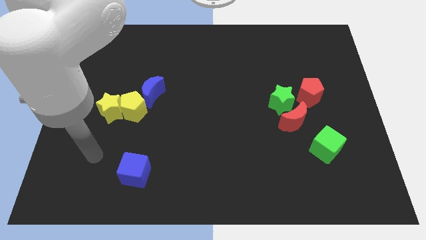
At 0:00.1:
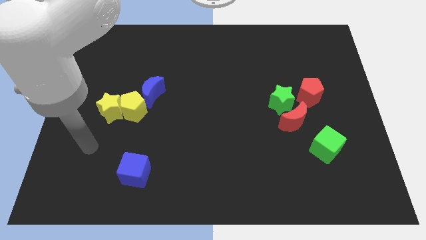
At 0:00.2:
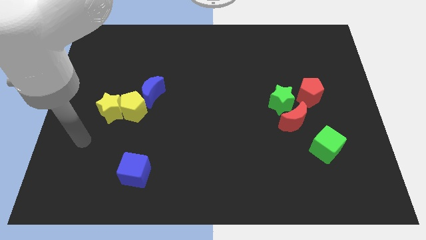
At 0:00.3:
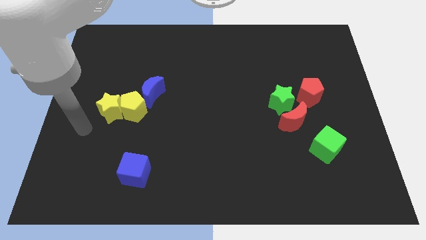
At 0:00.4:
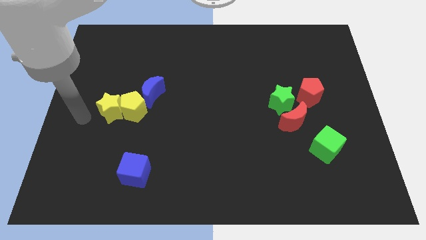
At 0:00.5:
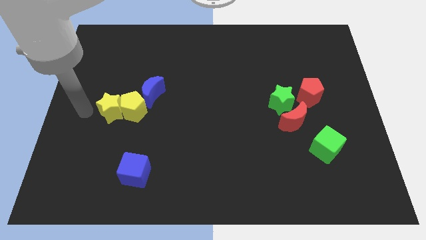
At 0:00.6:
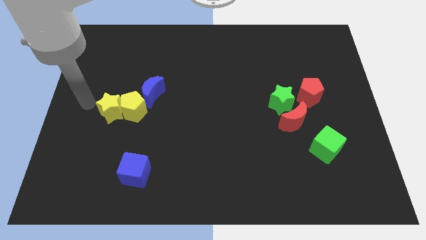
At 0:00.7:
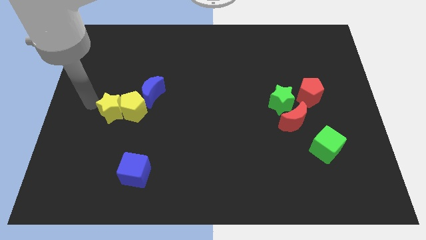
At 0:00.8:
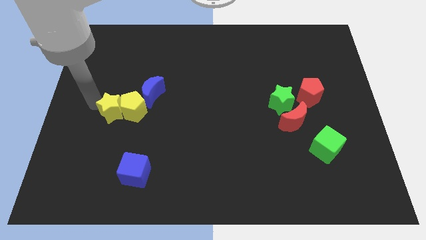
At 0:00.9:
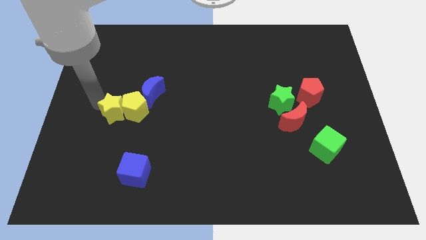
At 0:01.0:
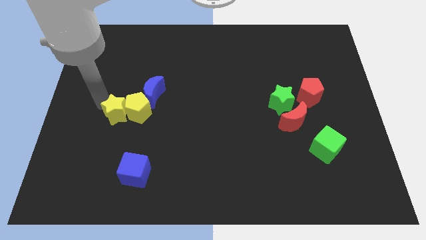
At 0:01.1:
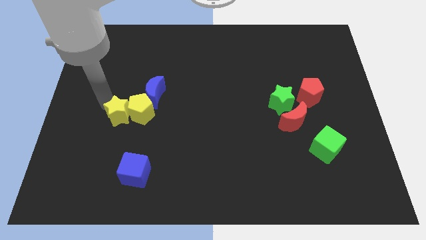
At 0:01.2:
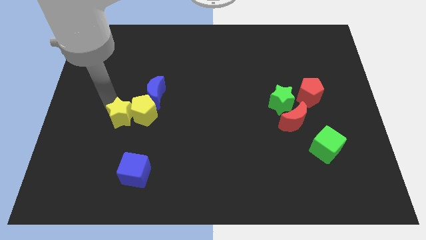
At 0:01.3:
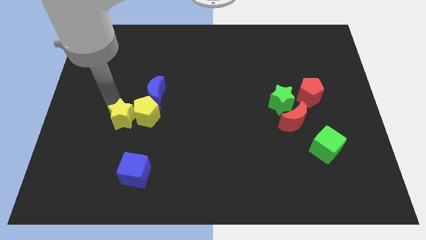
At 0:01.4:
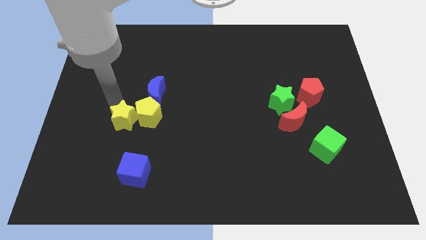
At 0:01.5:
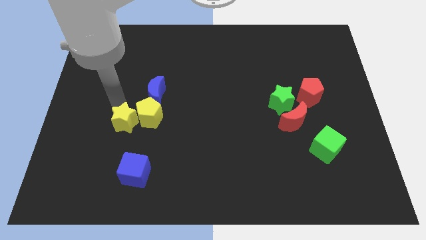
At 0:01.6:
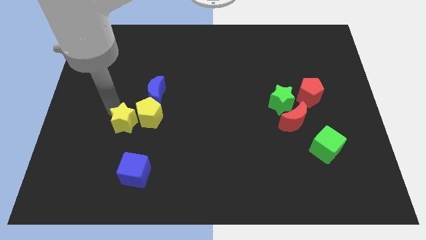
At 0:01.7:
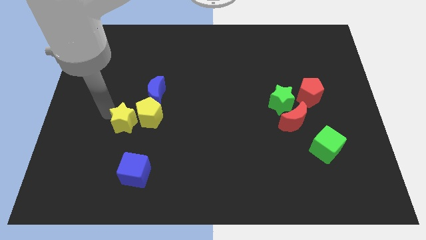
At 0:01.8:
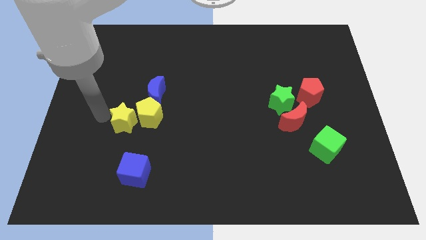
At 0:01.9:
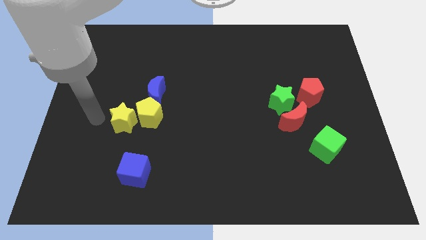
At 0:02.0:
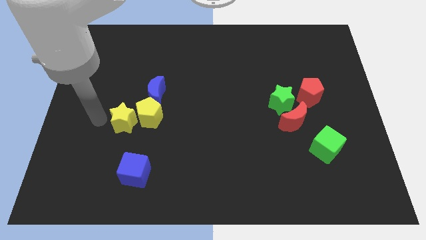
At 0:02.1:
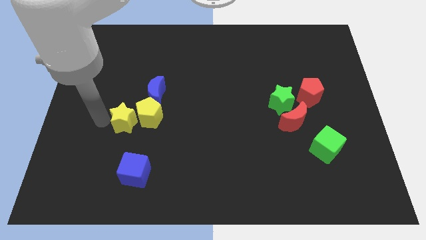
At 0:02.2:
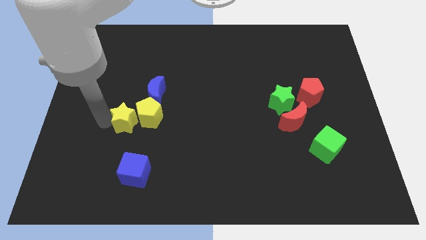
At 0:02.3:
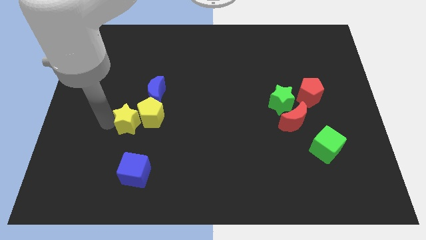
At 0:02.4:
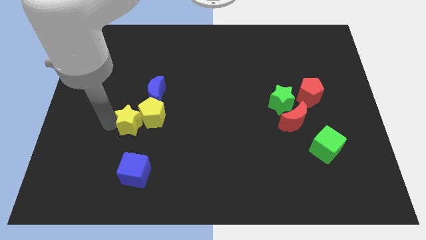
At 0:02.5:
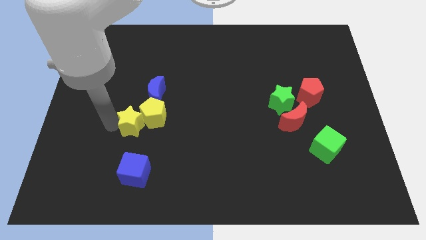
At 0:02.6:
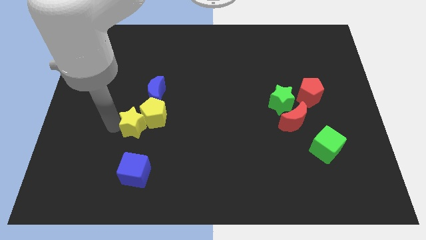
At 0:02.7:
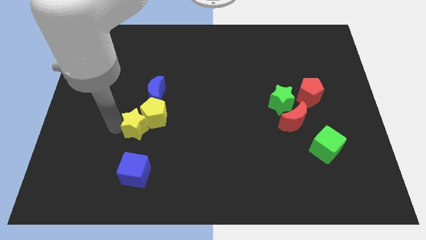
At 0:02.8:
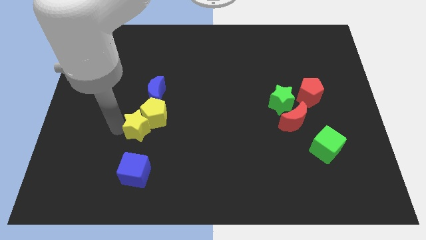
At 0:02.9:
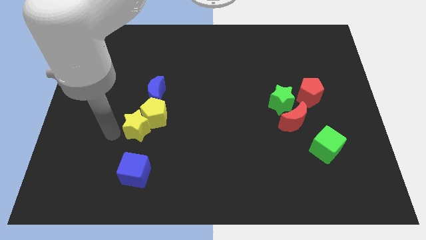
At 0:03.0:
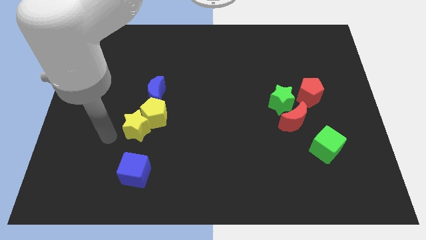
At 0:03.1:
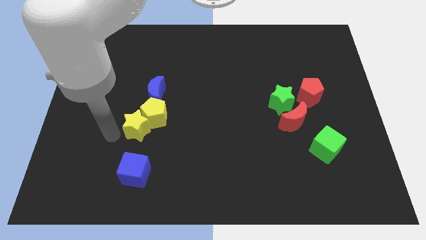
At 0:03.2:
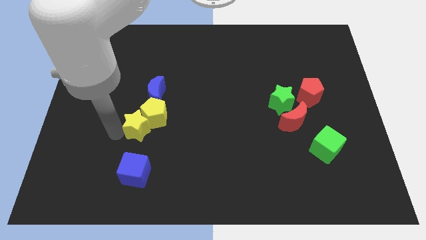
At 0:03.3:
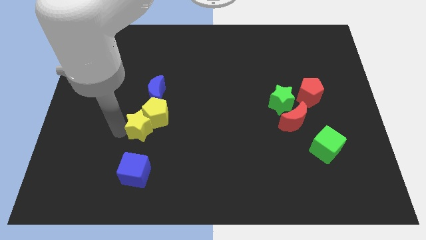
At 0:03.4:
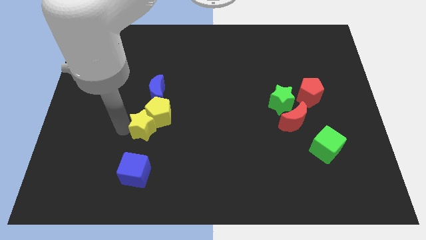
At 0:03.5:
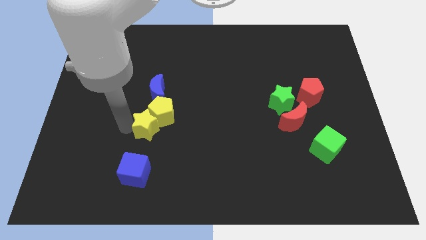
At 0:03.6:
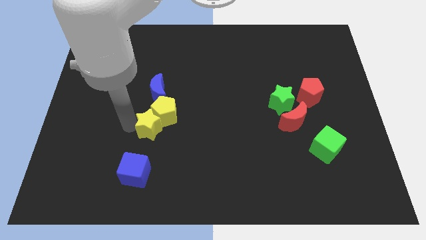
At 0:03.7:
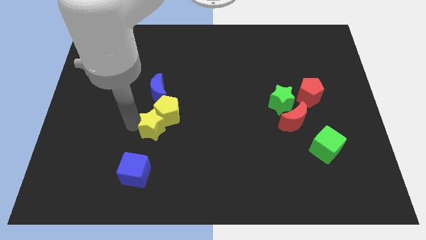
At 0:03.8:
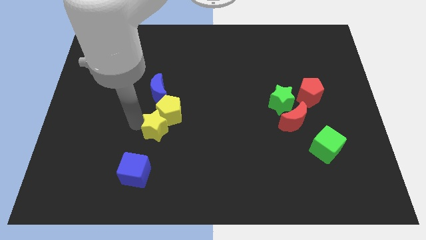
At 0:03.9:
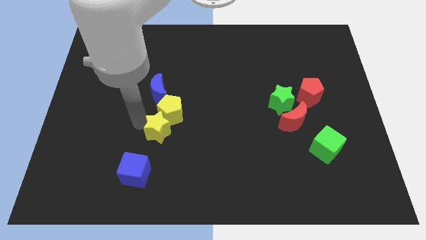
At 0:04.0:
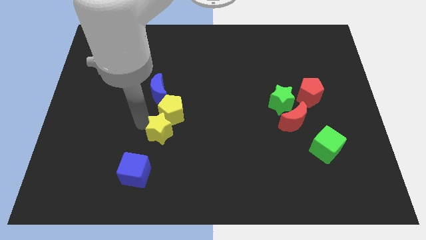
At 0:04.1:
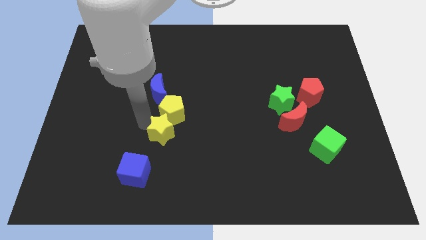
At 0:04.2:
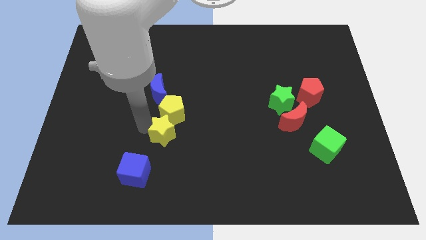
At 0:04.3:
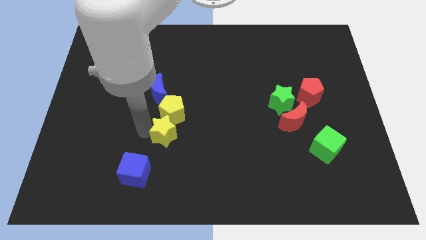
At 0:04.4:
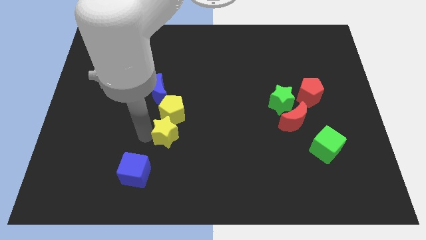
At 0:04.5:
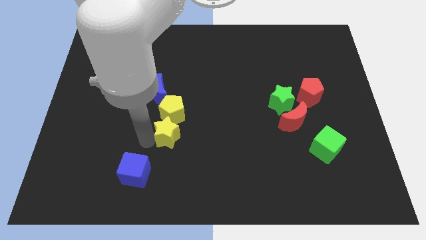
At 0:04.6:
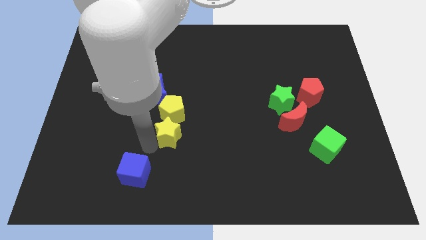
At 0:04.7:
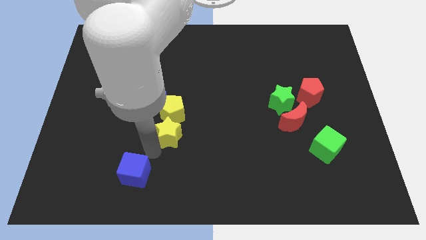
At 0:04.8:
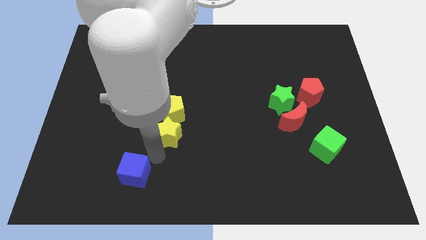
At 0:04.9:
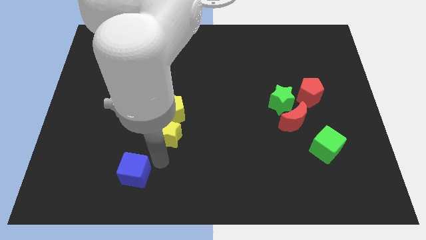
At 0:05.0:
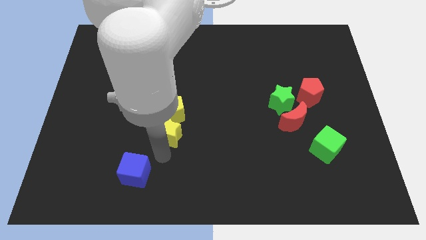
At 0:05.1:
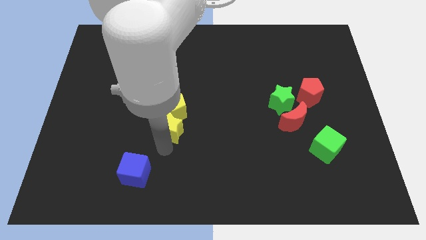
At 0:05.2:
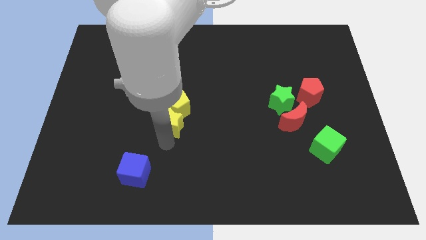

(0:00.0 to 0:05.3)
slide the yellow star to the middle

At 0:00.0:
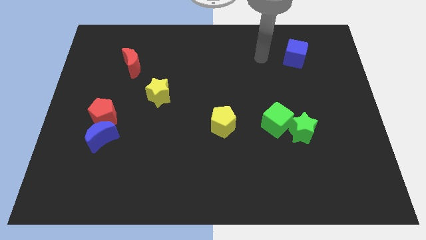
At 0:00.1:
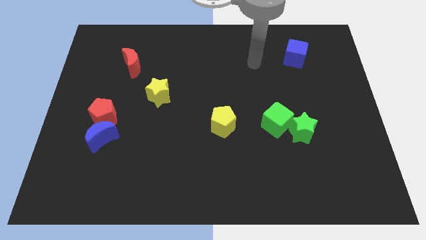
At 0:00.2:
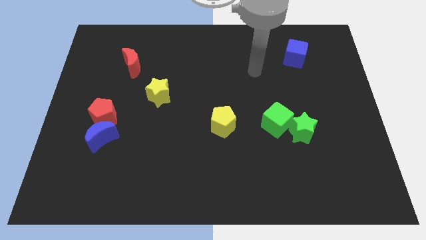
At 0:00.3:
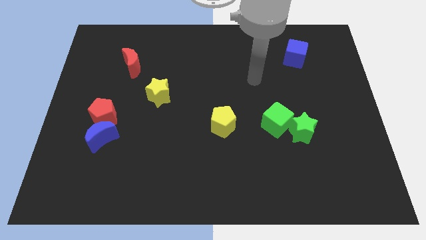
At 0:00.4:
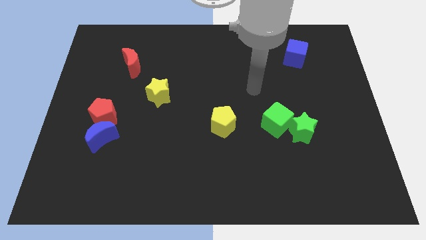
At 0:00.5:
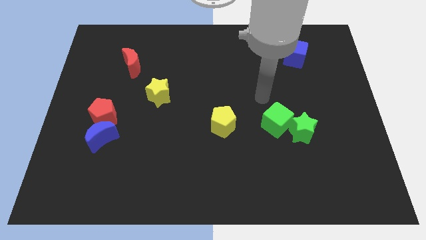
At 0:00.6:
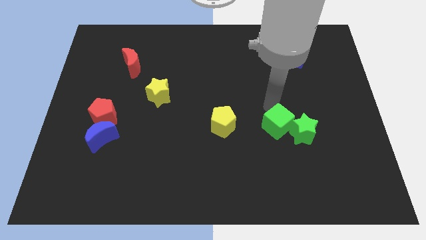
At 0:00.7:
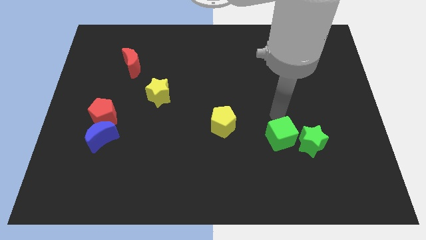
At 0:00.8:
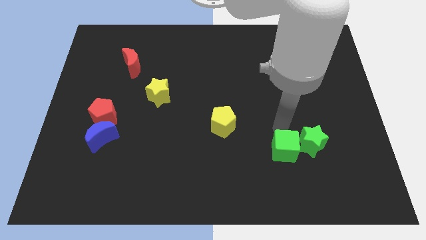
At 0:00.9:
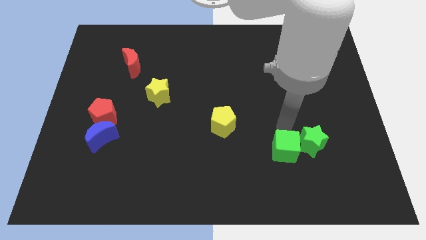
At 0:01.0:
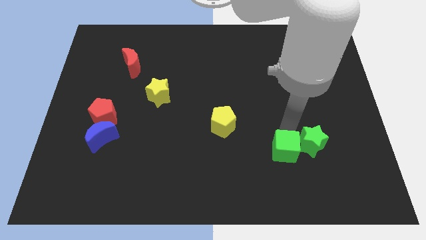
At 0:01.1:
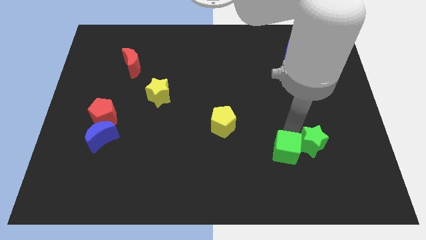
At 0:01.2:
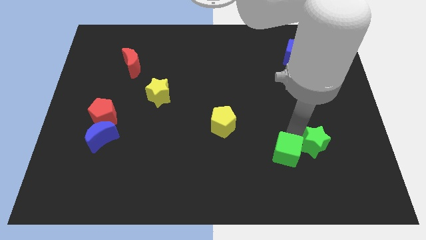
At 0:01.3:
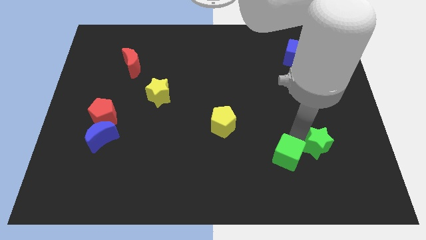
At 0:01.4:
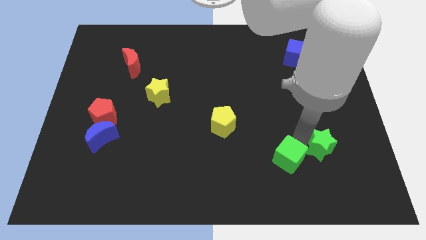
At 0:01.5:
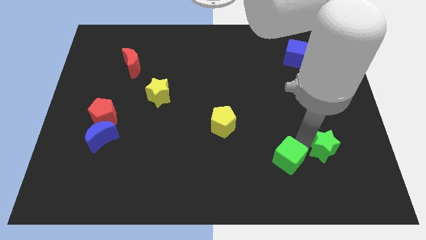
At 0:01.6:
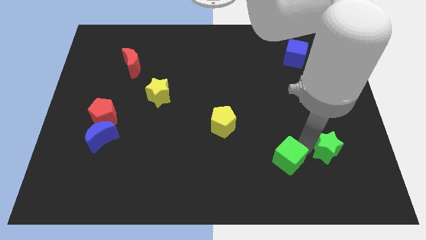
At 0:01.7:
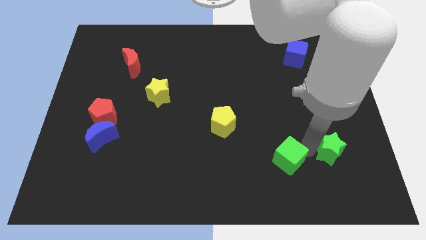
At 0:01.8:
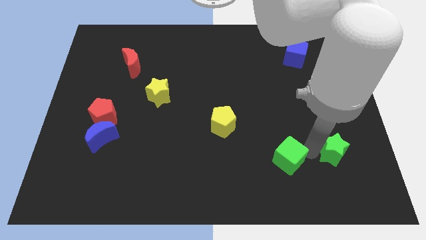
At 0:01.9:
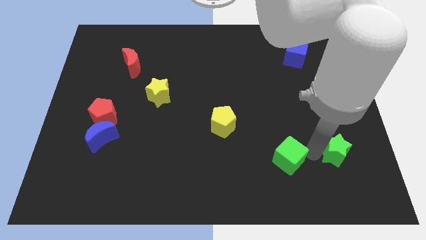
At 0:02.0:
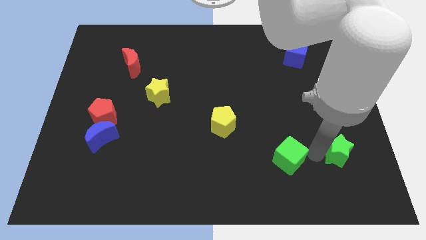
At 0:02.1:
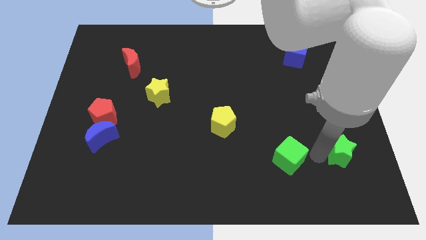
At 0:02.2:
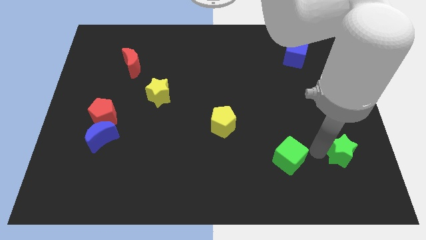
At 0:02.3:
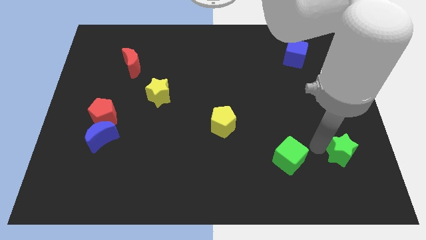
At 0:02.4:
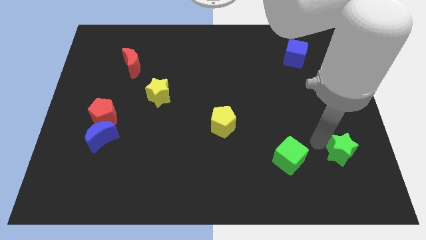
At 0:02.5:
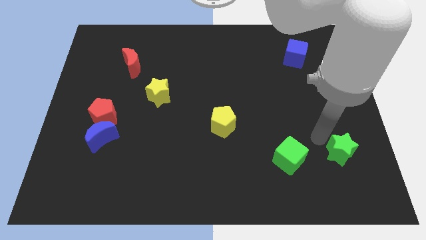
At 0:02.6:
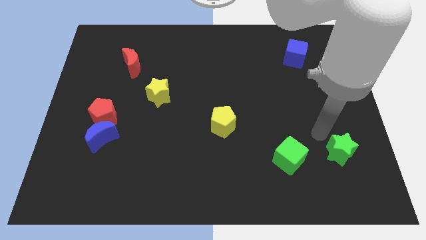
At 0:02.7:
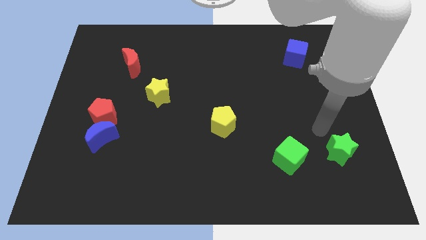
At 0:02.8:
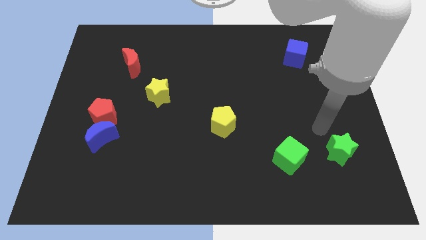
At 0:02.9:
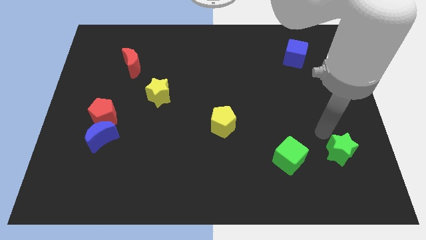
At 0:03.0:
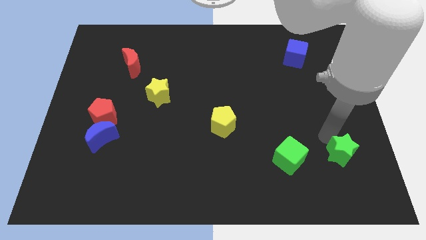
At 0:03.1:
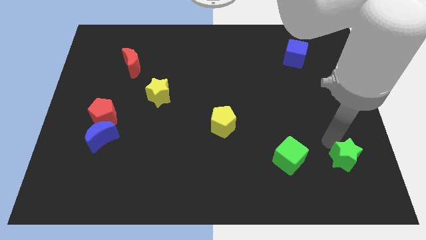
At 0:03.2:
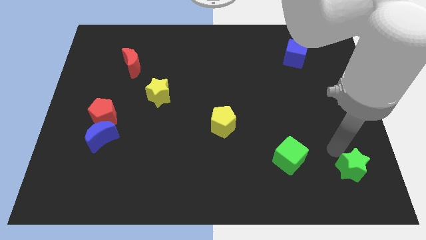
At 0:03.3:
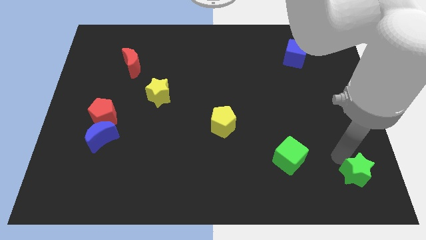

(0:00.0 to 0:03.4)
slide the green star to the bottom right corner
